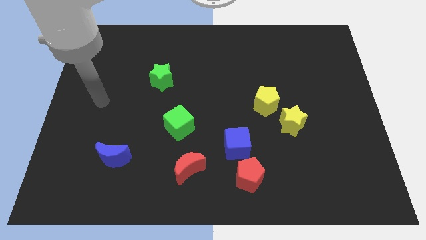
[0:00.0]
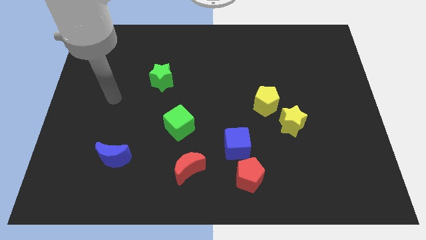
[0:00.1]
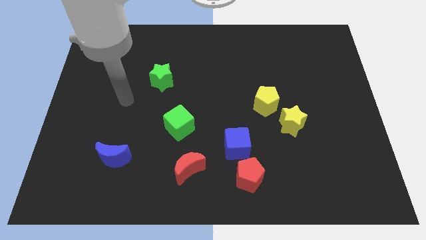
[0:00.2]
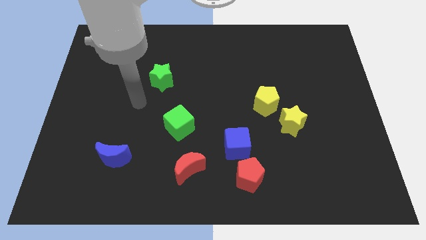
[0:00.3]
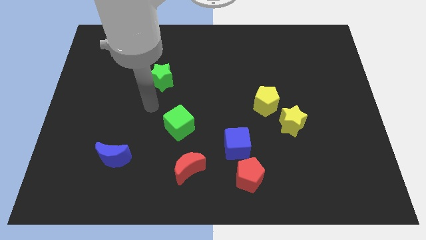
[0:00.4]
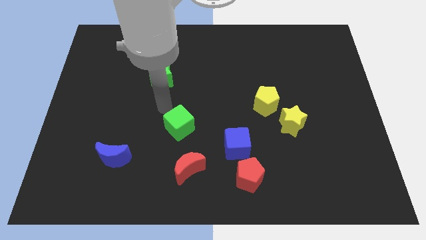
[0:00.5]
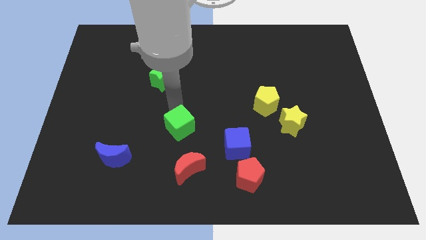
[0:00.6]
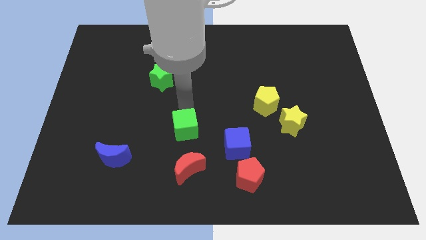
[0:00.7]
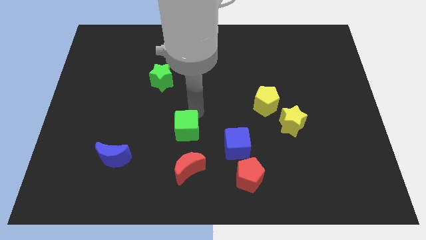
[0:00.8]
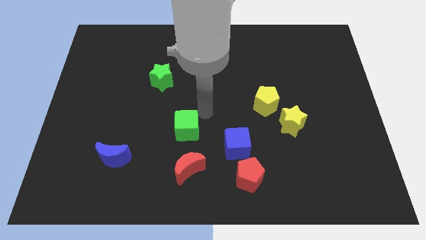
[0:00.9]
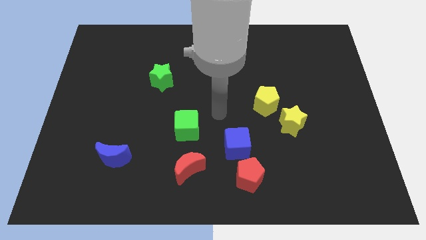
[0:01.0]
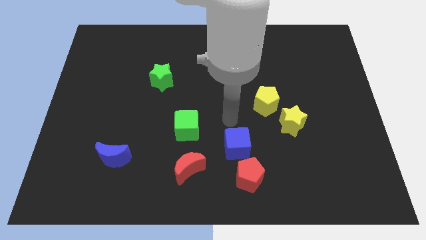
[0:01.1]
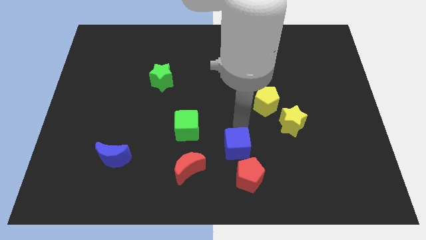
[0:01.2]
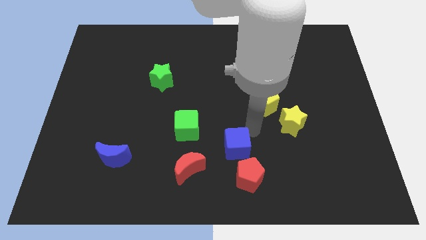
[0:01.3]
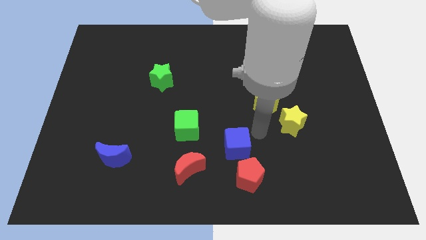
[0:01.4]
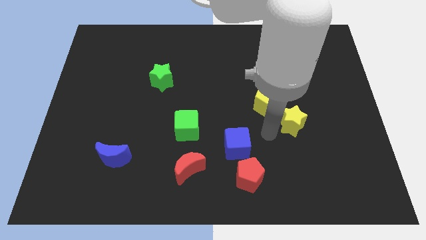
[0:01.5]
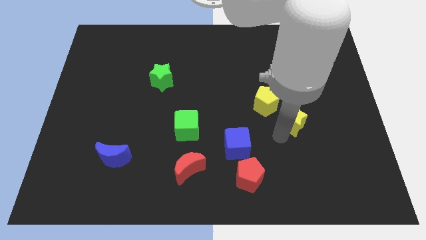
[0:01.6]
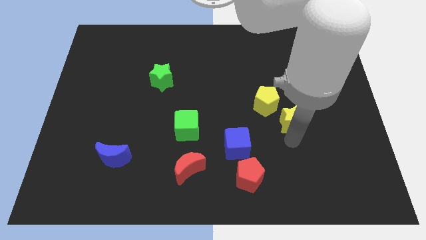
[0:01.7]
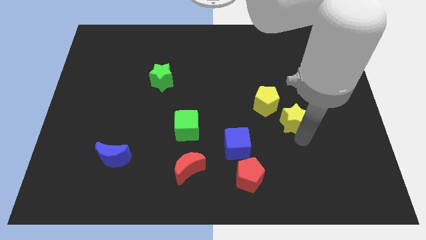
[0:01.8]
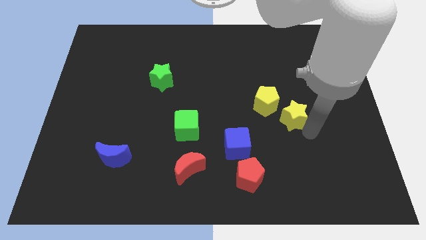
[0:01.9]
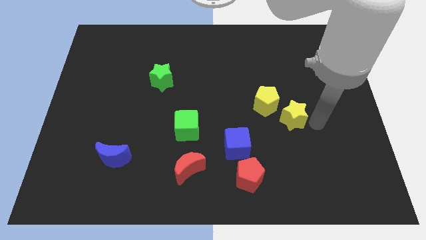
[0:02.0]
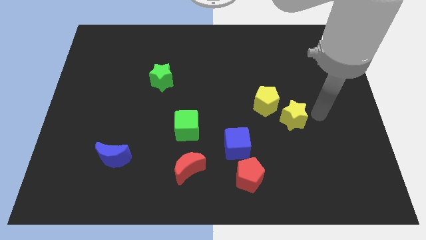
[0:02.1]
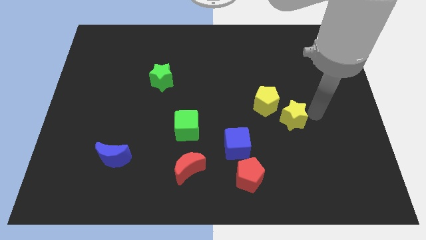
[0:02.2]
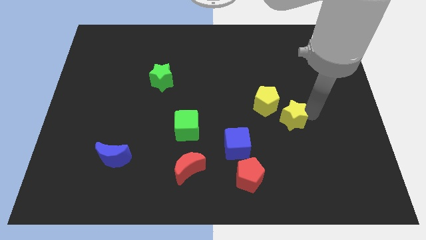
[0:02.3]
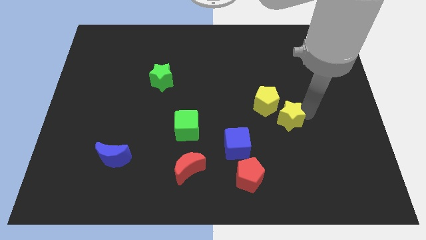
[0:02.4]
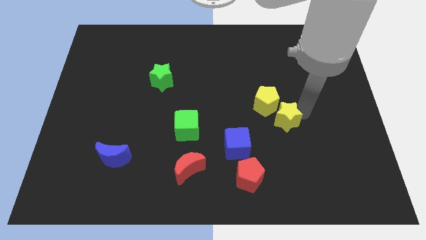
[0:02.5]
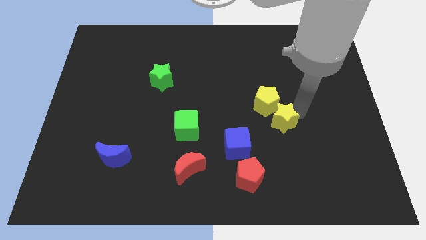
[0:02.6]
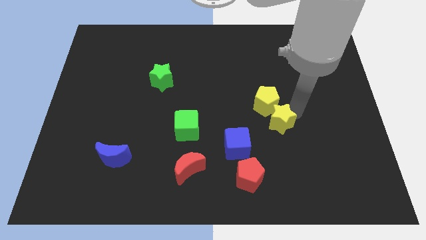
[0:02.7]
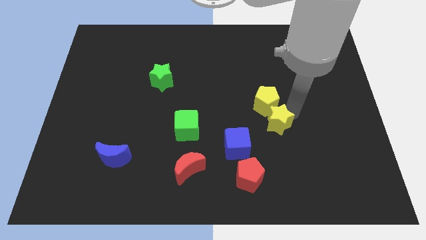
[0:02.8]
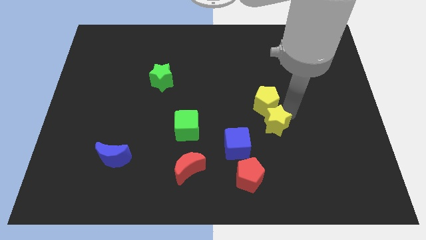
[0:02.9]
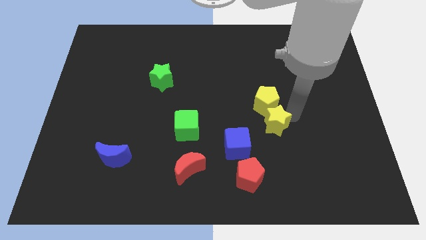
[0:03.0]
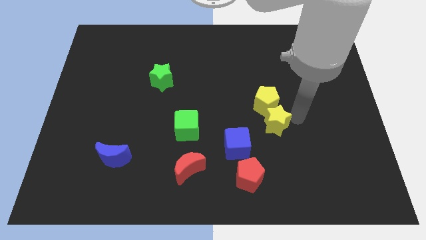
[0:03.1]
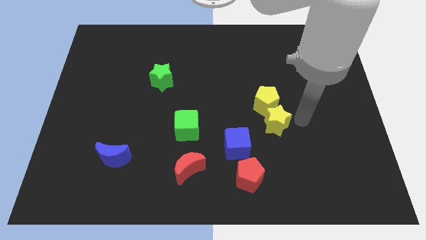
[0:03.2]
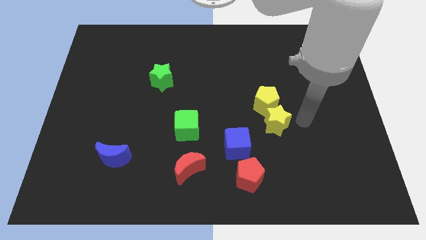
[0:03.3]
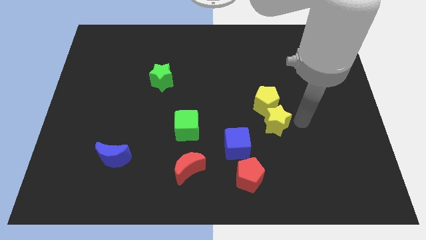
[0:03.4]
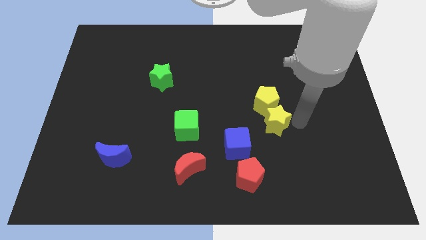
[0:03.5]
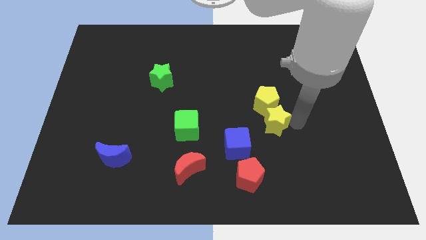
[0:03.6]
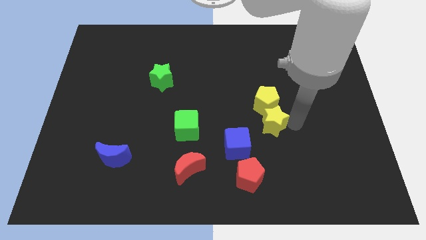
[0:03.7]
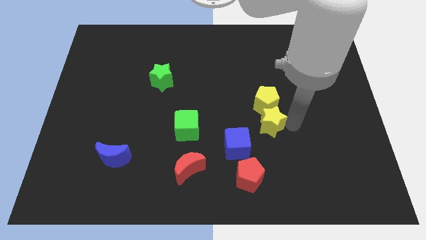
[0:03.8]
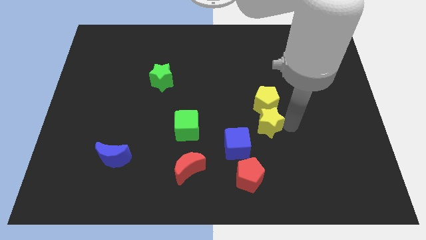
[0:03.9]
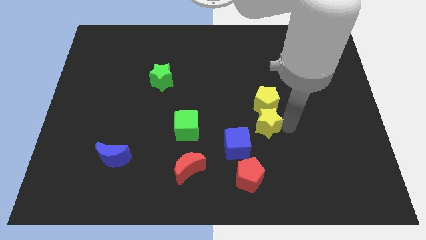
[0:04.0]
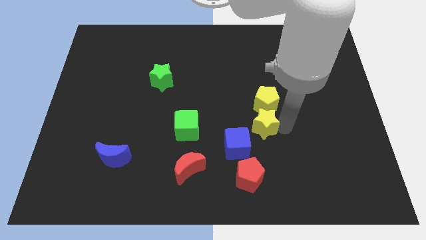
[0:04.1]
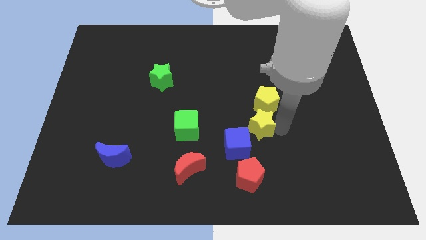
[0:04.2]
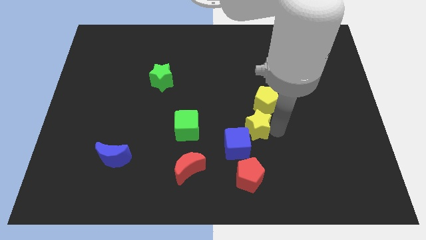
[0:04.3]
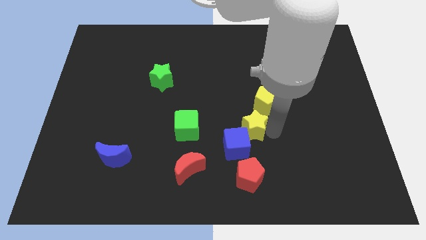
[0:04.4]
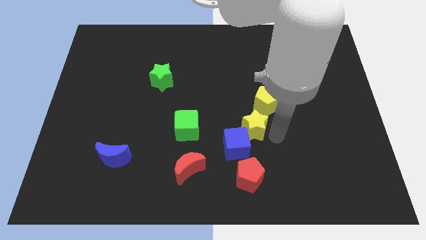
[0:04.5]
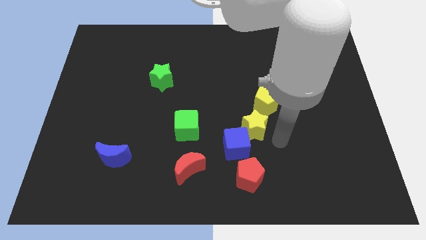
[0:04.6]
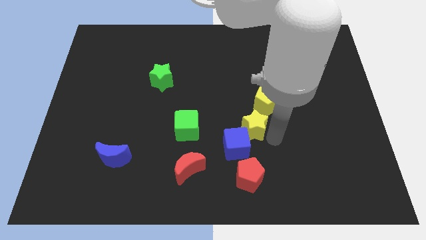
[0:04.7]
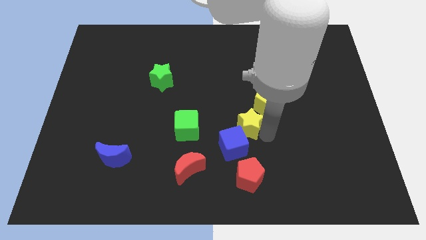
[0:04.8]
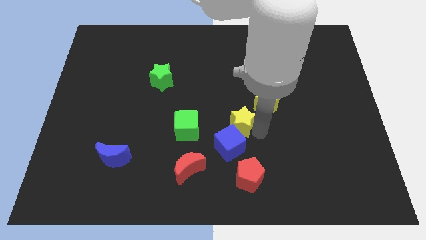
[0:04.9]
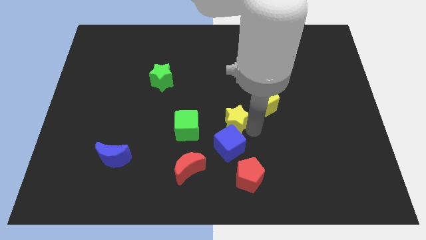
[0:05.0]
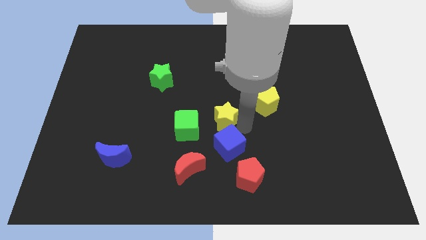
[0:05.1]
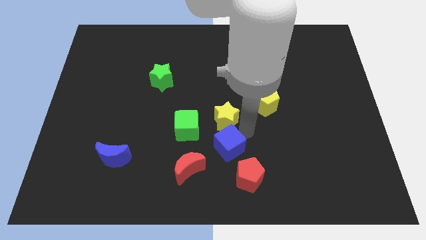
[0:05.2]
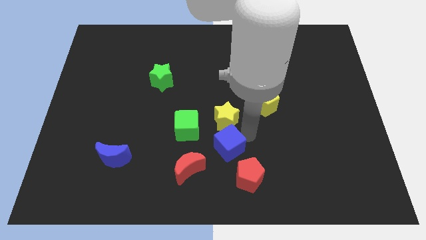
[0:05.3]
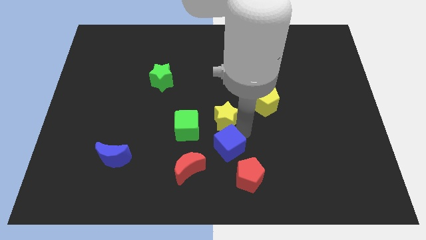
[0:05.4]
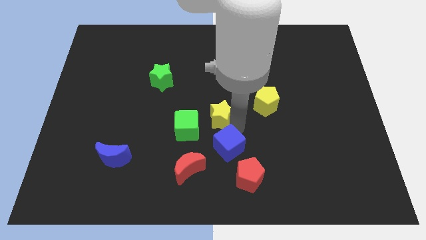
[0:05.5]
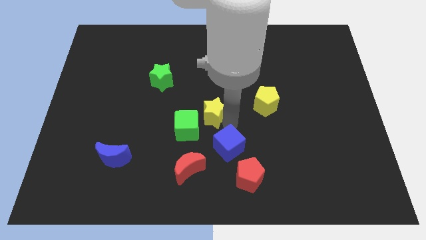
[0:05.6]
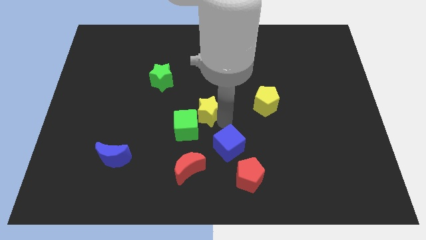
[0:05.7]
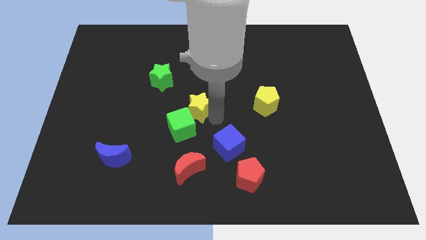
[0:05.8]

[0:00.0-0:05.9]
push the yellow star to the bottom right side of the green star

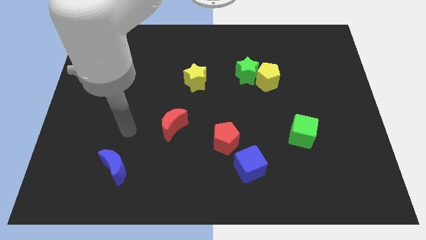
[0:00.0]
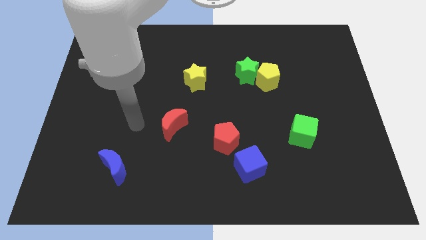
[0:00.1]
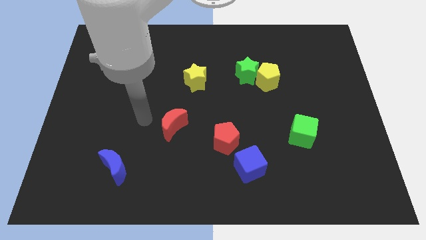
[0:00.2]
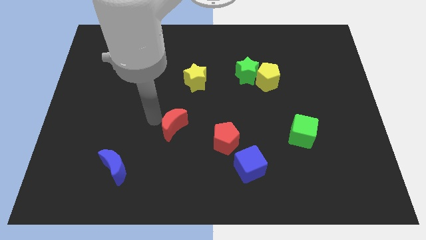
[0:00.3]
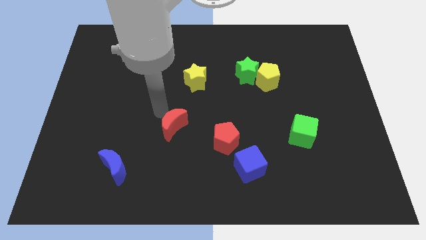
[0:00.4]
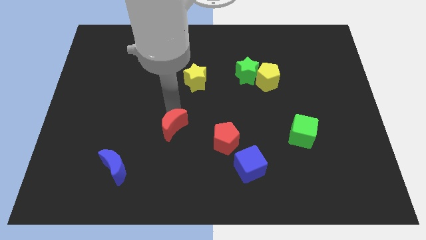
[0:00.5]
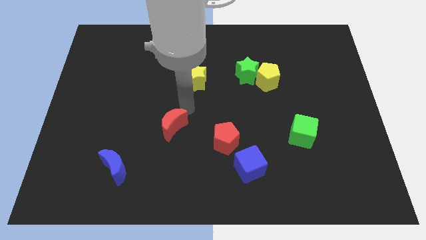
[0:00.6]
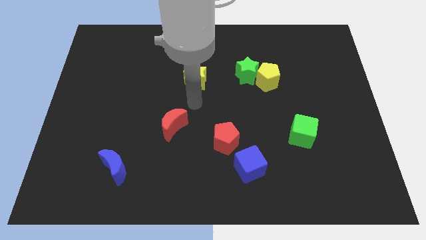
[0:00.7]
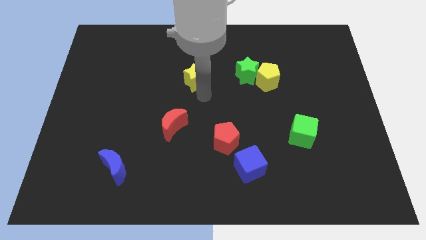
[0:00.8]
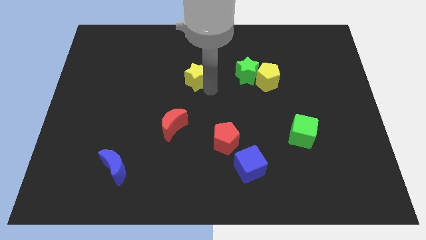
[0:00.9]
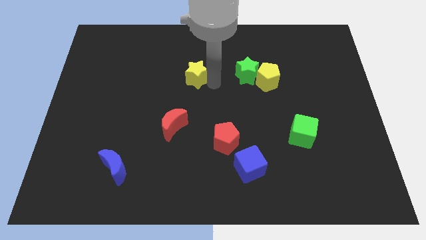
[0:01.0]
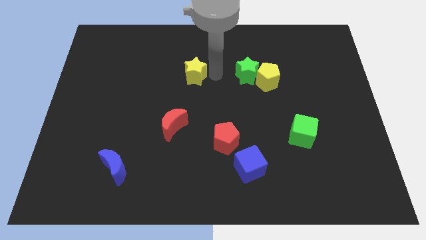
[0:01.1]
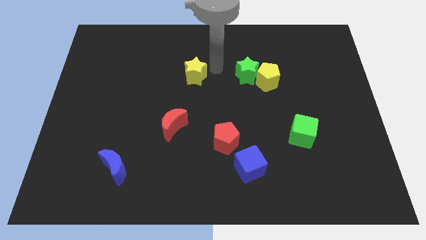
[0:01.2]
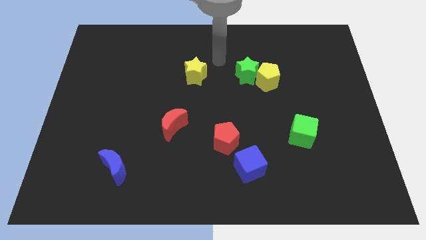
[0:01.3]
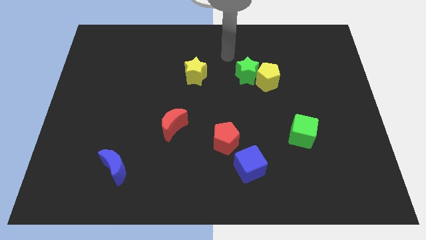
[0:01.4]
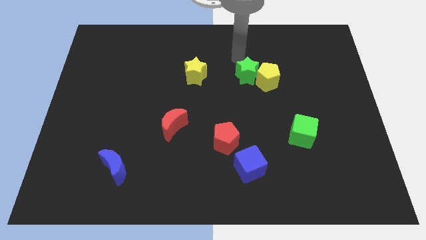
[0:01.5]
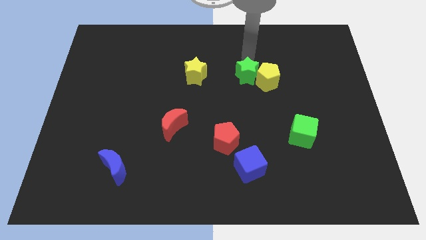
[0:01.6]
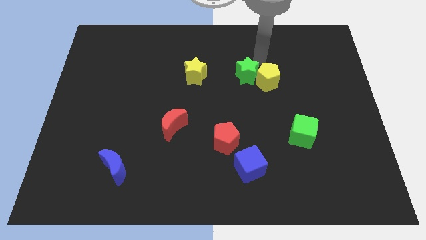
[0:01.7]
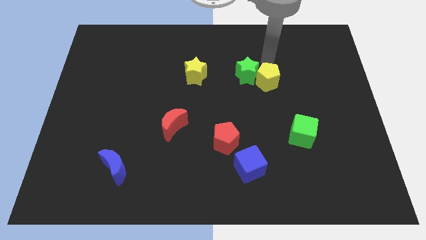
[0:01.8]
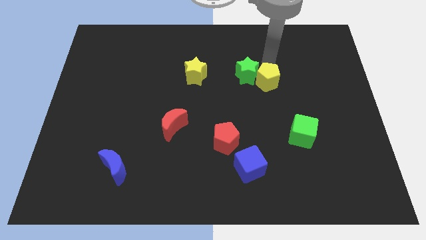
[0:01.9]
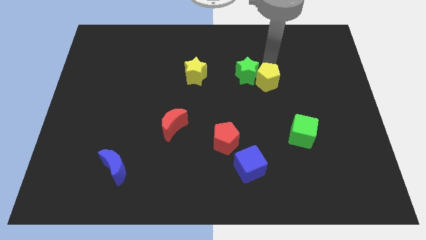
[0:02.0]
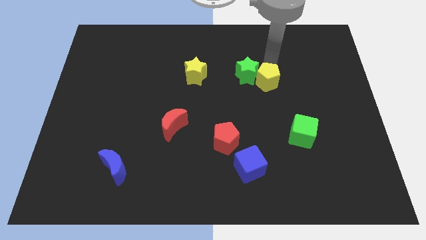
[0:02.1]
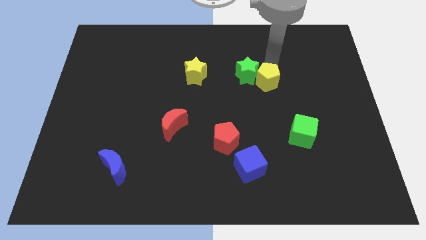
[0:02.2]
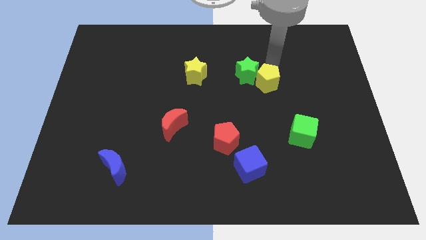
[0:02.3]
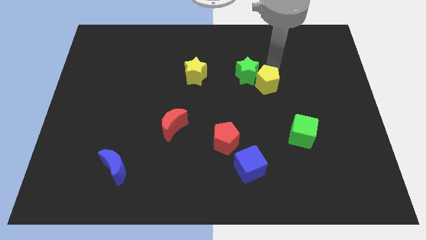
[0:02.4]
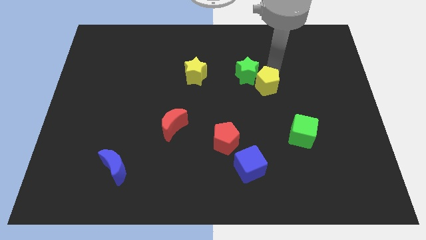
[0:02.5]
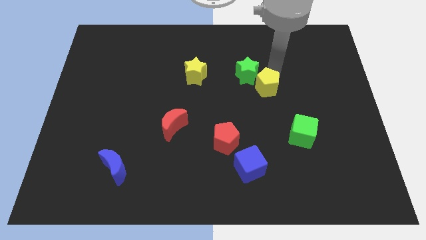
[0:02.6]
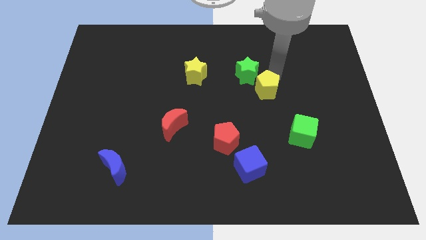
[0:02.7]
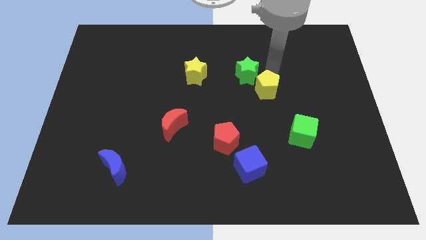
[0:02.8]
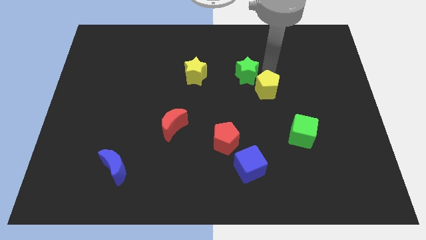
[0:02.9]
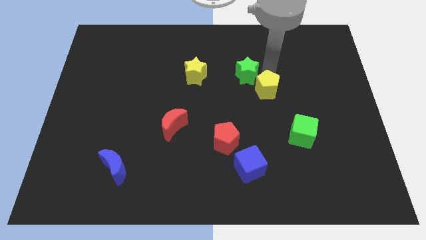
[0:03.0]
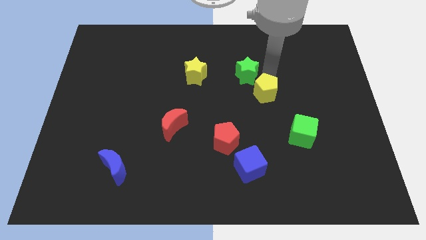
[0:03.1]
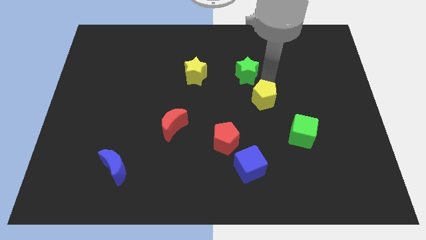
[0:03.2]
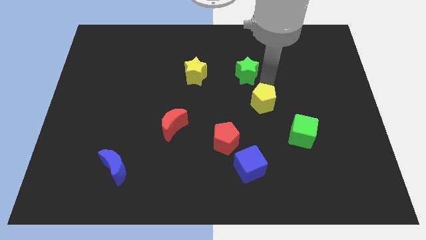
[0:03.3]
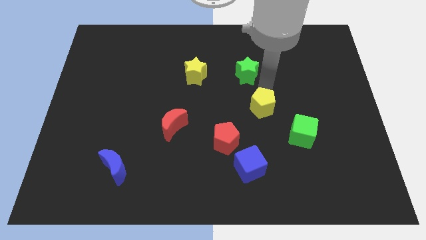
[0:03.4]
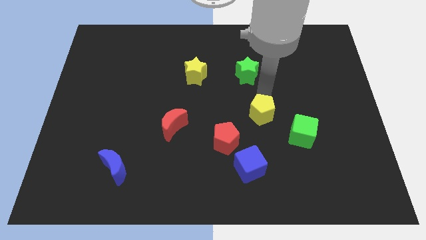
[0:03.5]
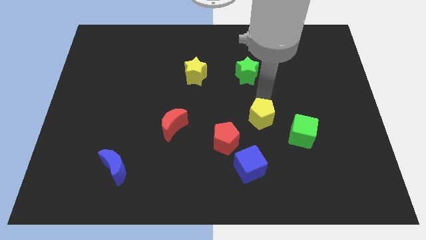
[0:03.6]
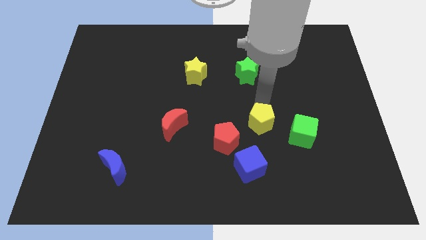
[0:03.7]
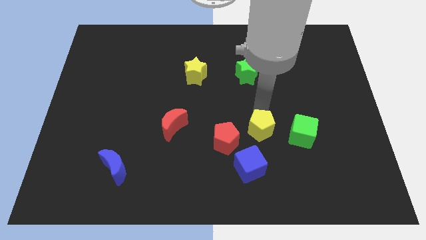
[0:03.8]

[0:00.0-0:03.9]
slide the yellow pentagon to the top right of the blue cube
